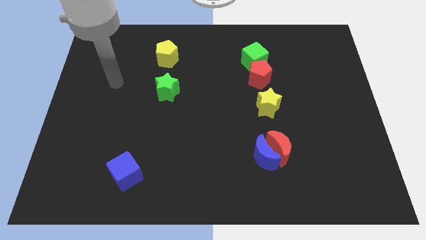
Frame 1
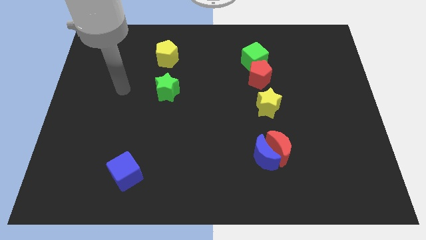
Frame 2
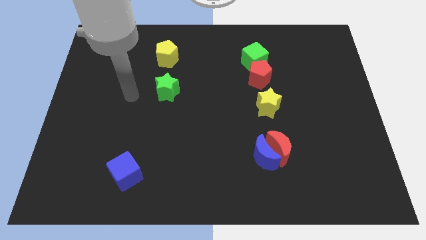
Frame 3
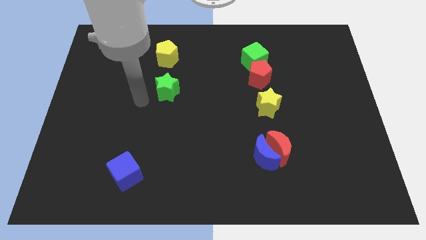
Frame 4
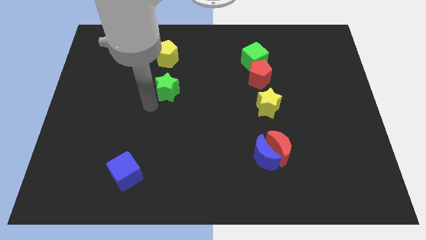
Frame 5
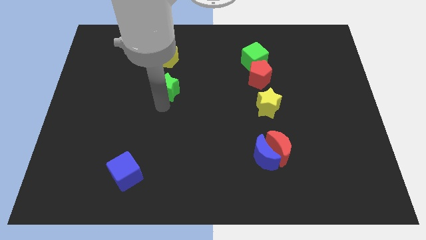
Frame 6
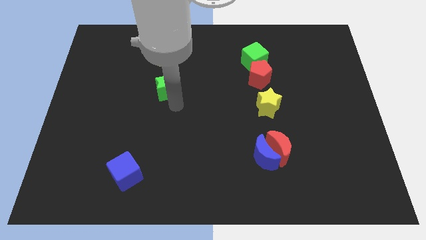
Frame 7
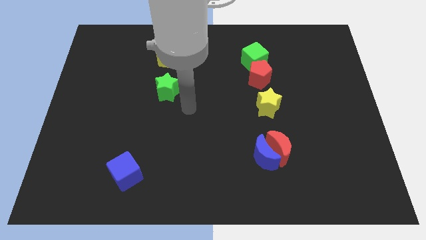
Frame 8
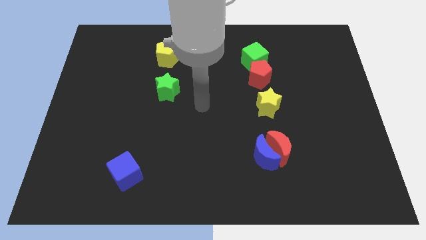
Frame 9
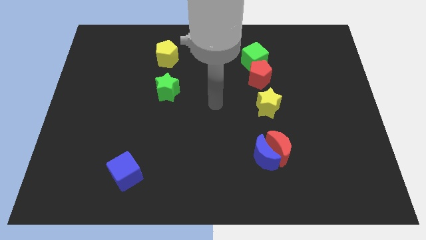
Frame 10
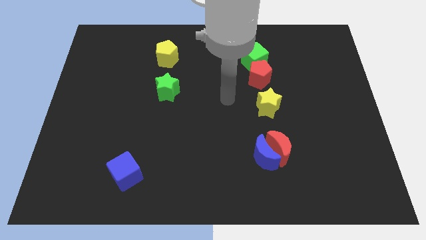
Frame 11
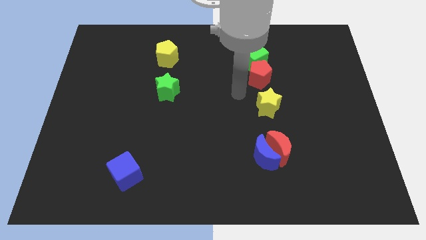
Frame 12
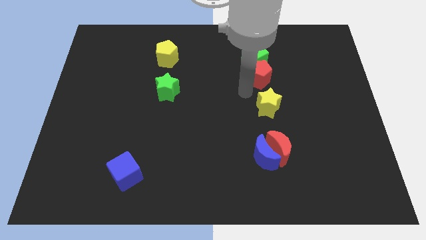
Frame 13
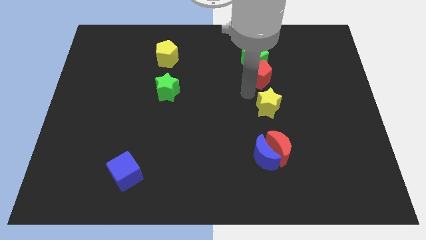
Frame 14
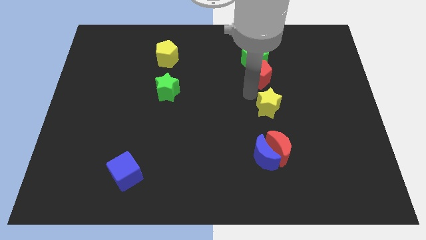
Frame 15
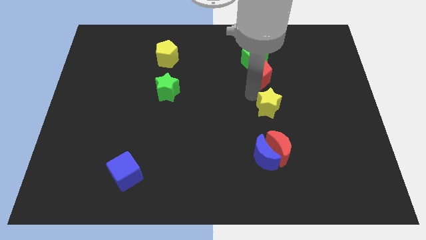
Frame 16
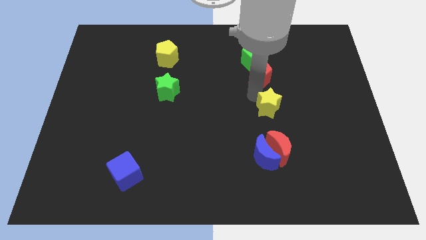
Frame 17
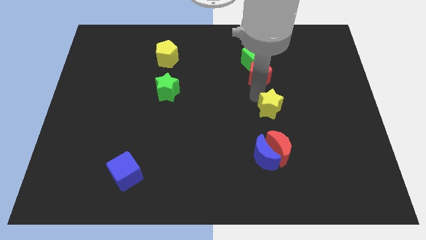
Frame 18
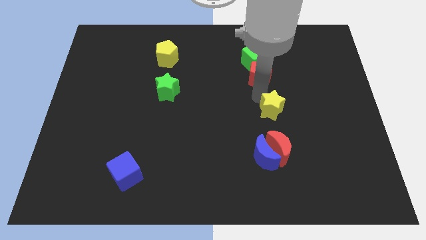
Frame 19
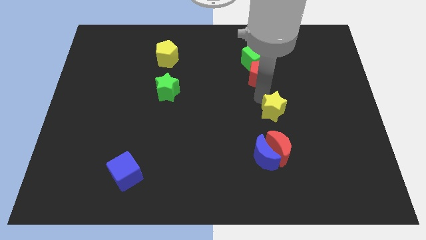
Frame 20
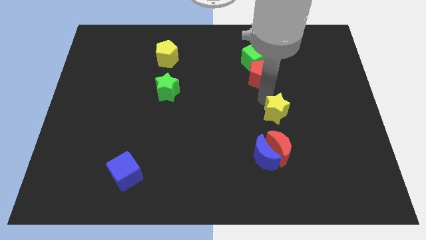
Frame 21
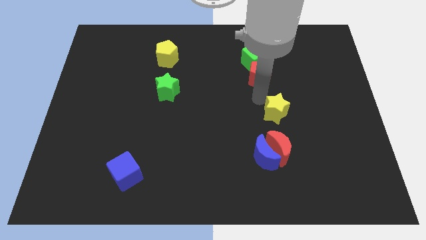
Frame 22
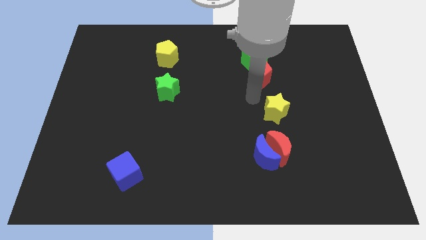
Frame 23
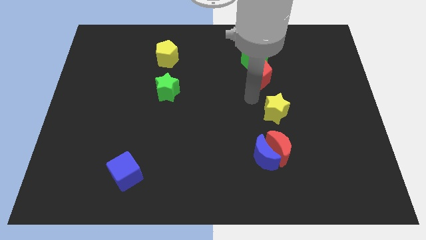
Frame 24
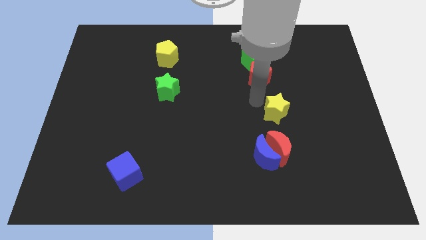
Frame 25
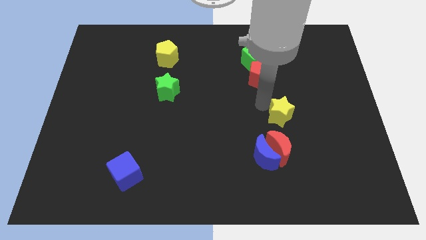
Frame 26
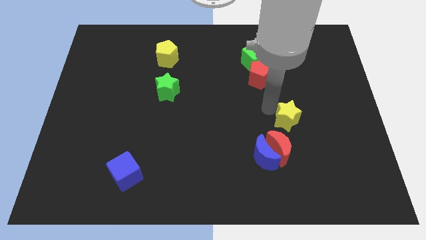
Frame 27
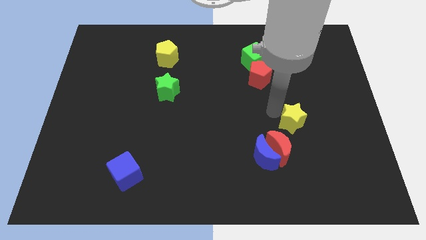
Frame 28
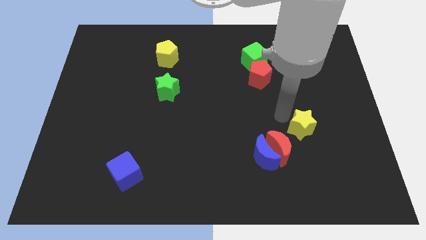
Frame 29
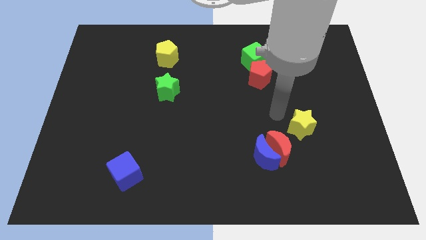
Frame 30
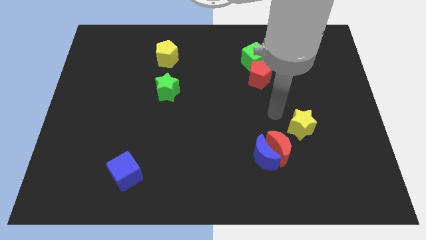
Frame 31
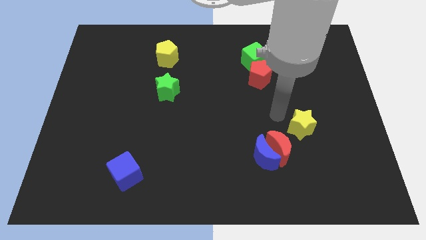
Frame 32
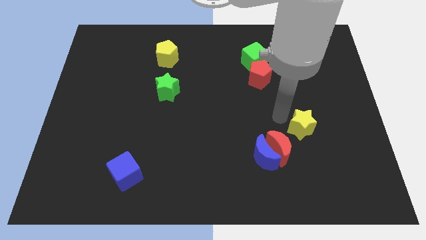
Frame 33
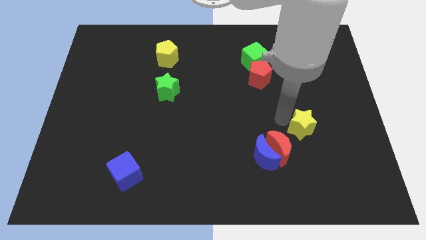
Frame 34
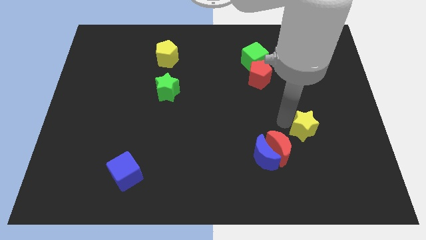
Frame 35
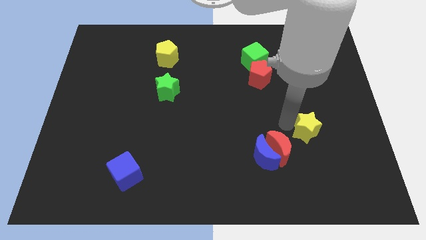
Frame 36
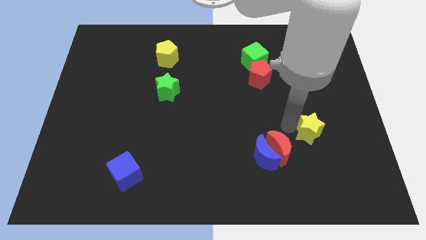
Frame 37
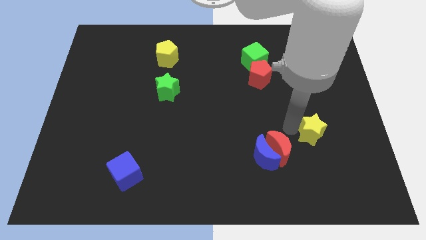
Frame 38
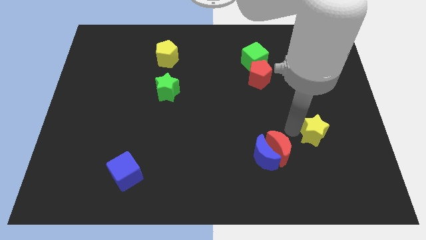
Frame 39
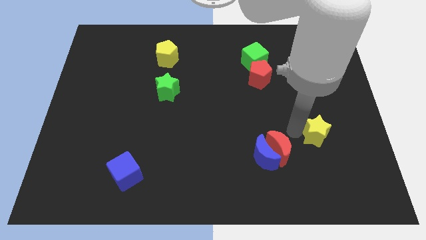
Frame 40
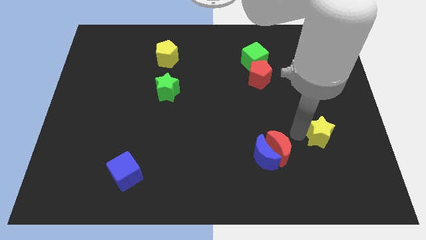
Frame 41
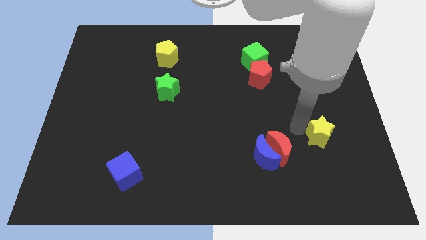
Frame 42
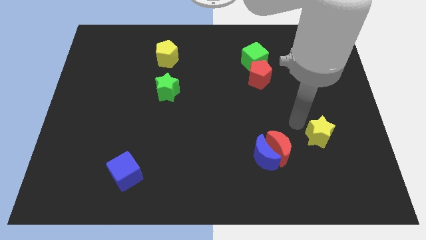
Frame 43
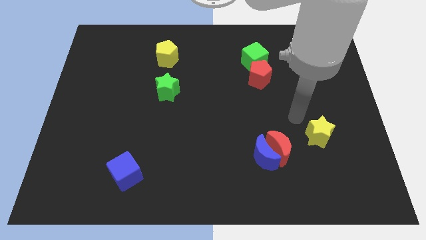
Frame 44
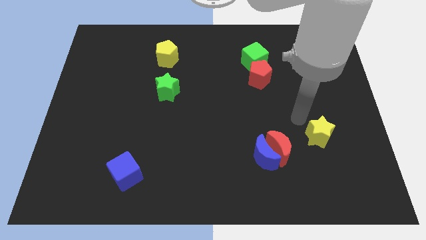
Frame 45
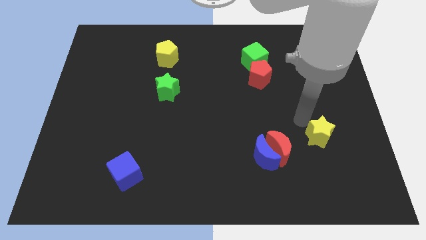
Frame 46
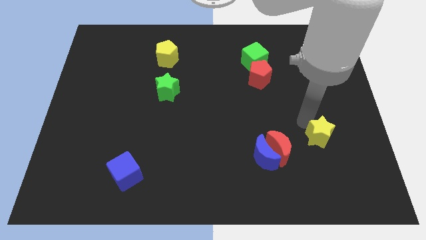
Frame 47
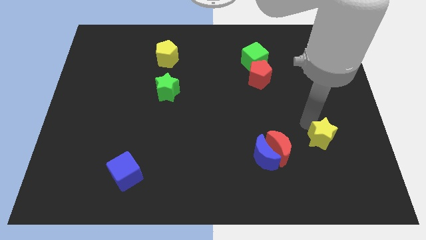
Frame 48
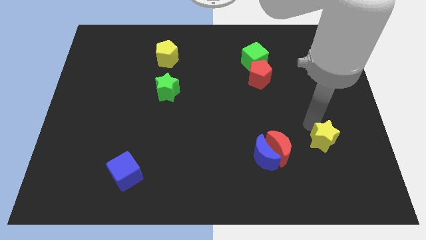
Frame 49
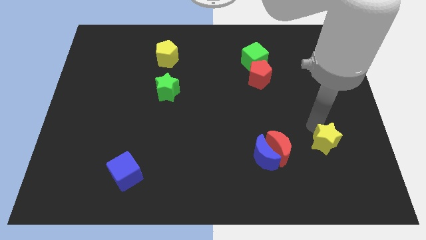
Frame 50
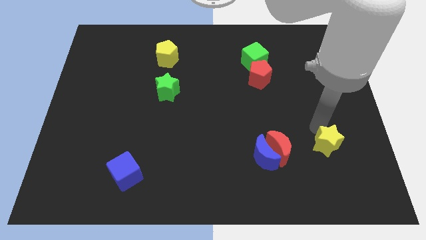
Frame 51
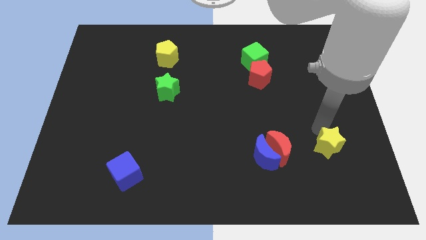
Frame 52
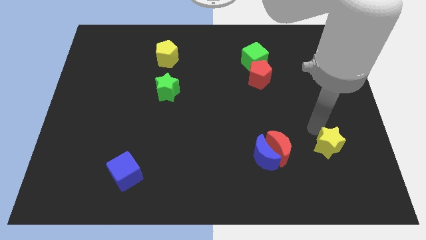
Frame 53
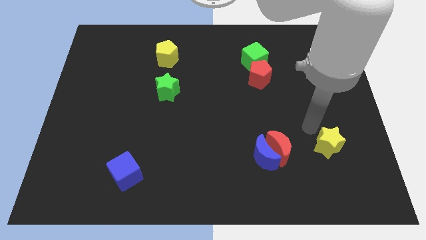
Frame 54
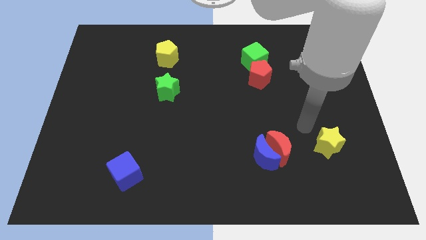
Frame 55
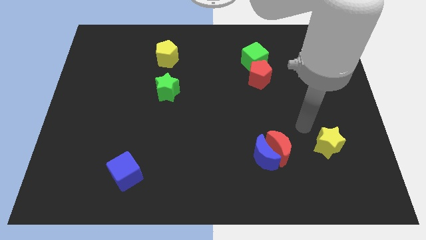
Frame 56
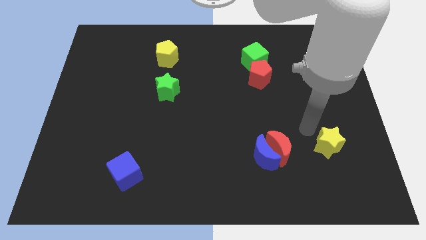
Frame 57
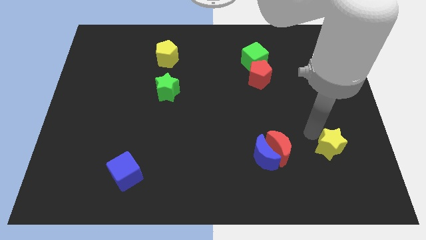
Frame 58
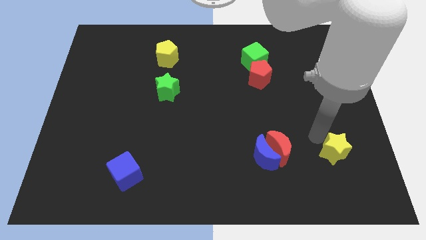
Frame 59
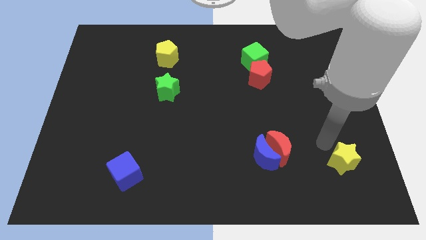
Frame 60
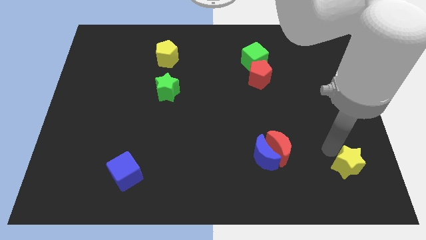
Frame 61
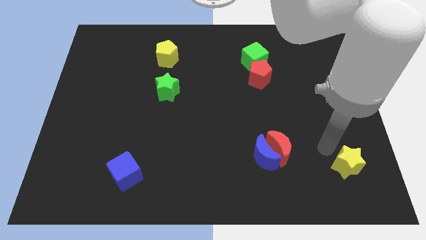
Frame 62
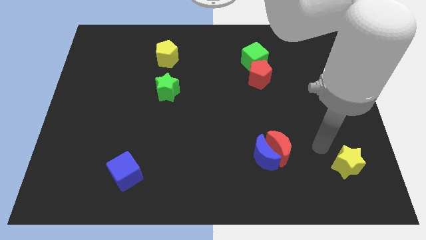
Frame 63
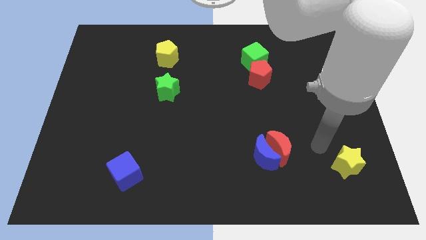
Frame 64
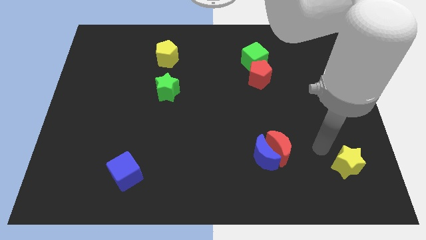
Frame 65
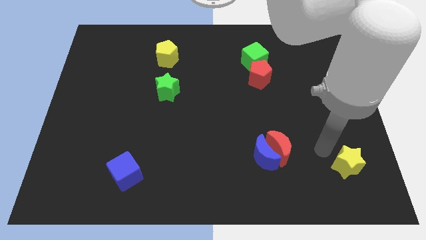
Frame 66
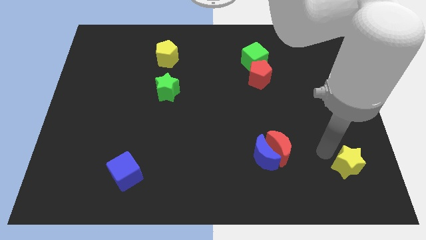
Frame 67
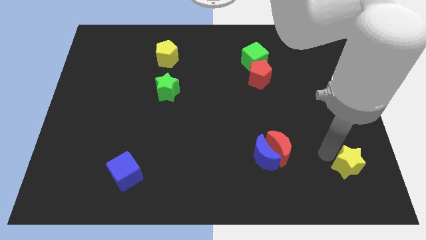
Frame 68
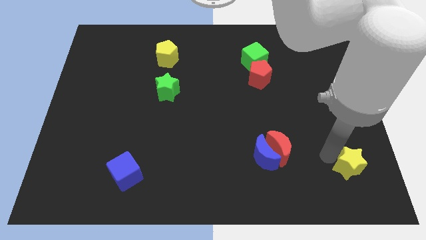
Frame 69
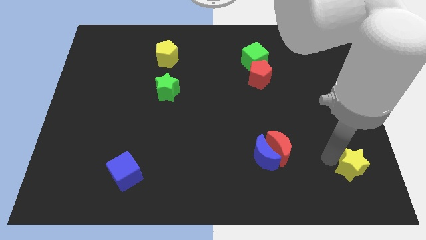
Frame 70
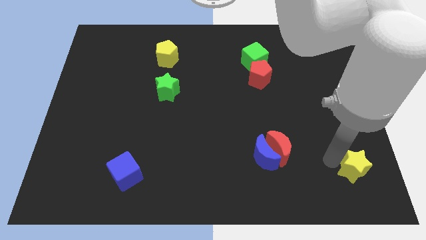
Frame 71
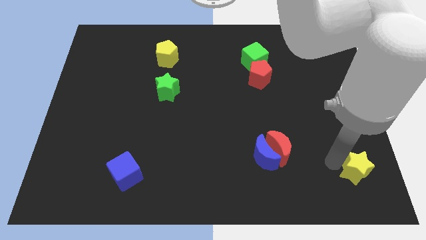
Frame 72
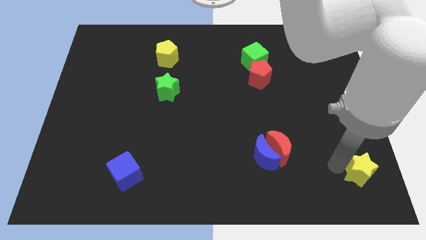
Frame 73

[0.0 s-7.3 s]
push the yellow star to the lower right corner
